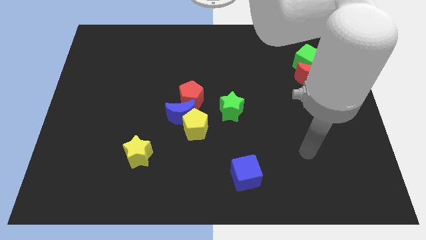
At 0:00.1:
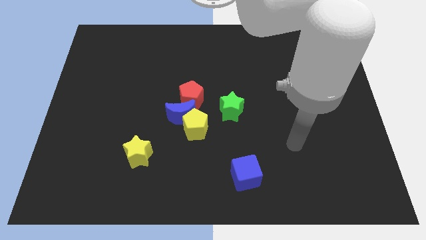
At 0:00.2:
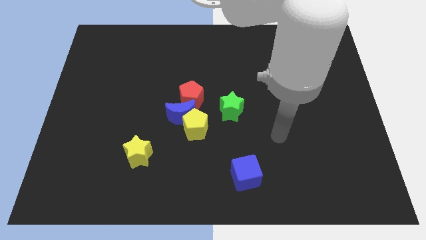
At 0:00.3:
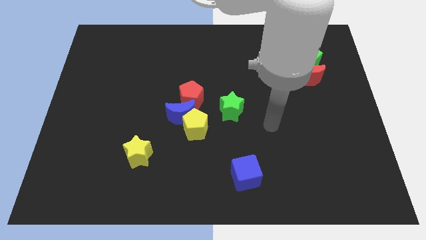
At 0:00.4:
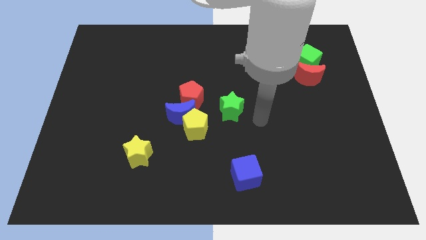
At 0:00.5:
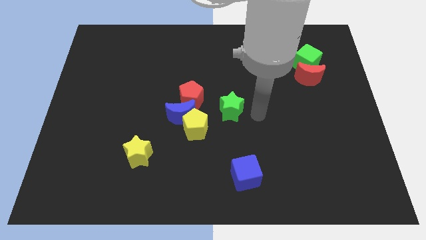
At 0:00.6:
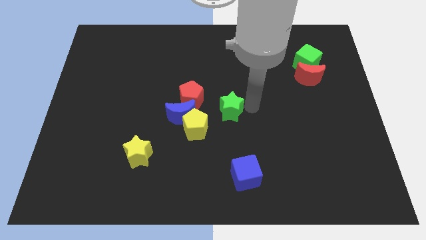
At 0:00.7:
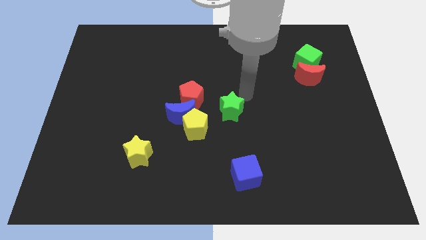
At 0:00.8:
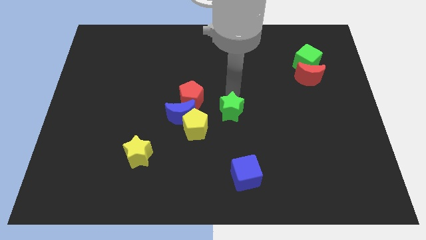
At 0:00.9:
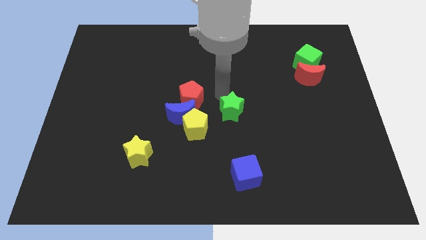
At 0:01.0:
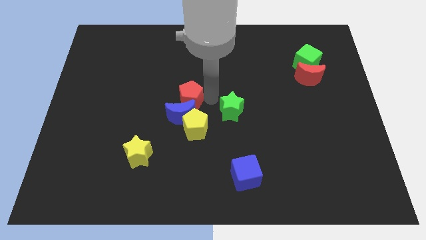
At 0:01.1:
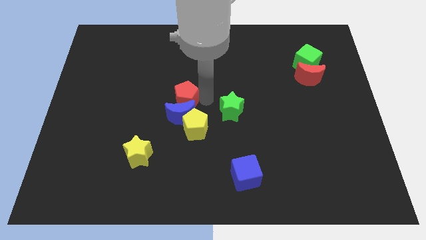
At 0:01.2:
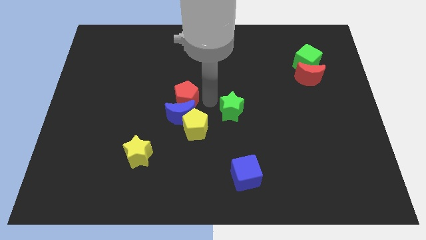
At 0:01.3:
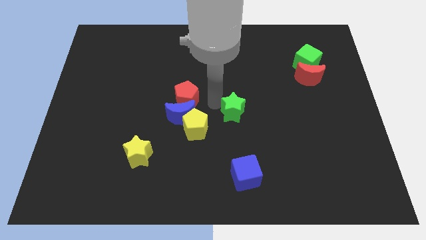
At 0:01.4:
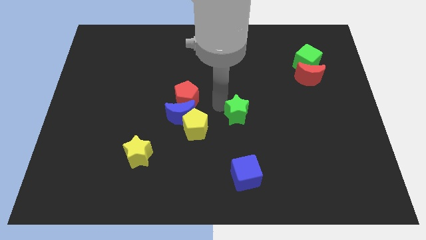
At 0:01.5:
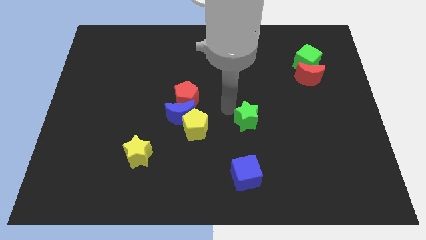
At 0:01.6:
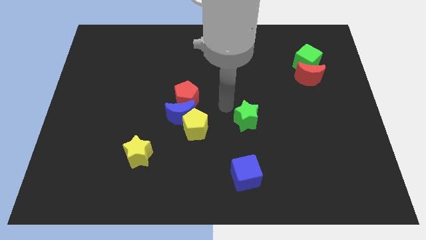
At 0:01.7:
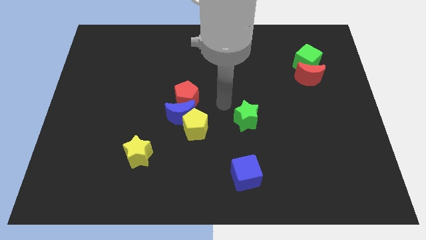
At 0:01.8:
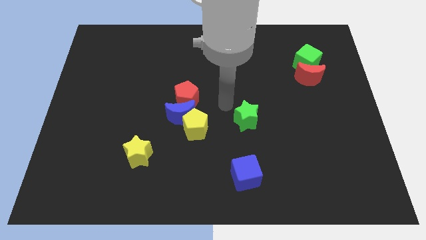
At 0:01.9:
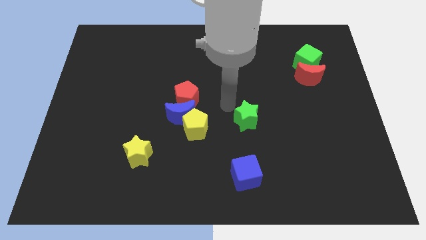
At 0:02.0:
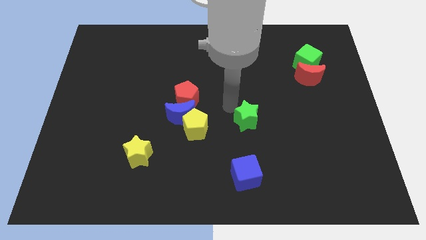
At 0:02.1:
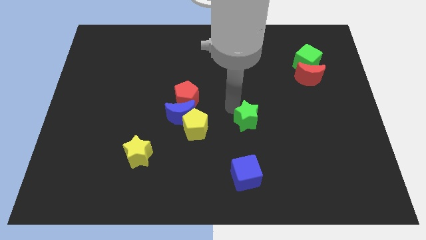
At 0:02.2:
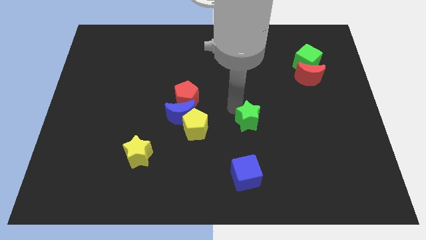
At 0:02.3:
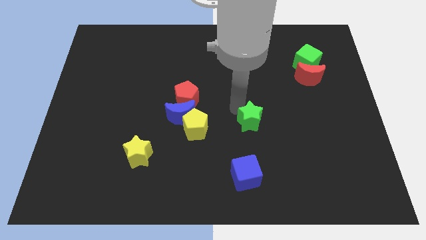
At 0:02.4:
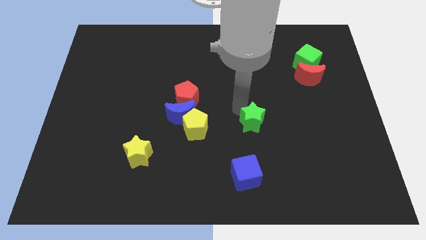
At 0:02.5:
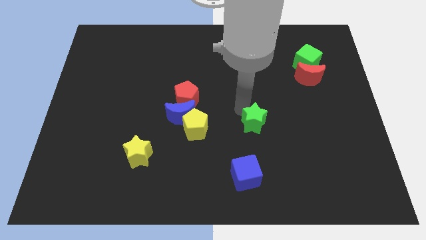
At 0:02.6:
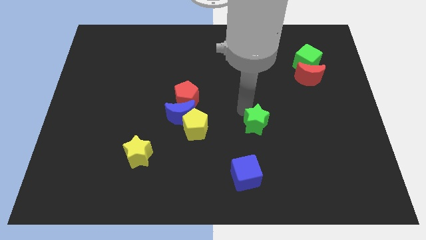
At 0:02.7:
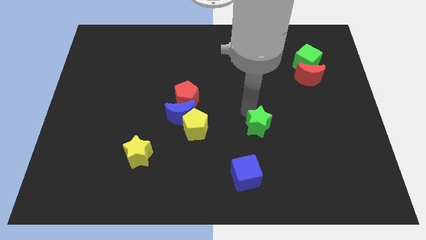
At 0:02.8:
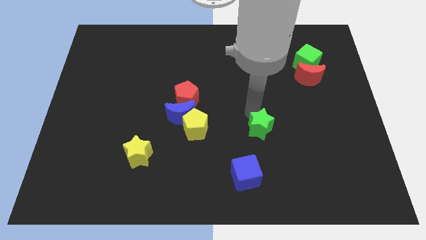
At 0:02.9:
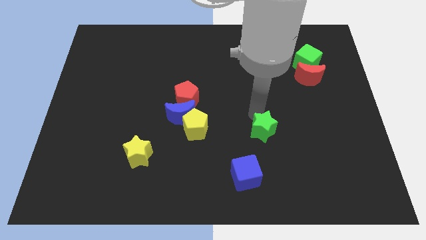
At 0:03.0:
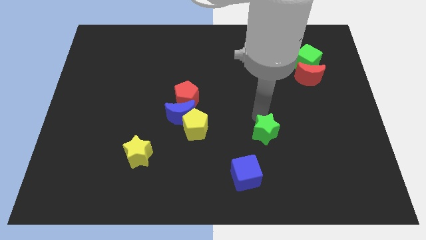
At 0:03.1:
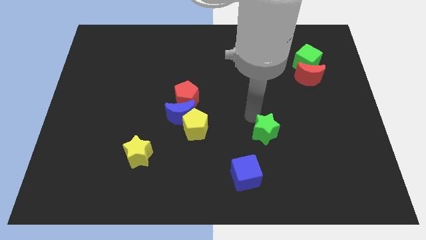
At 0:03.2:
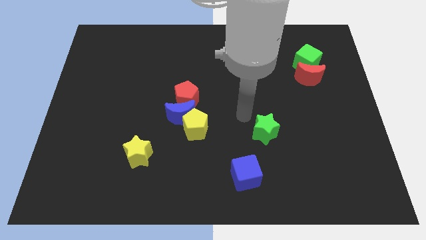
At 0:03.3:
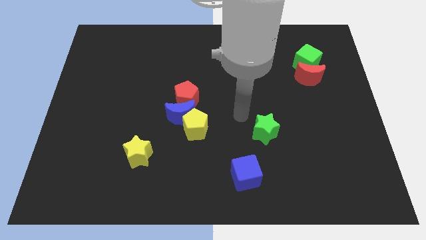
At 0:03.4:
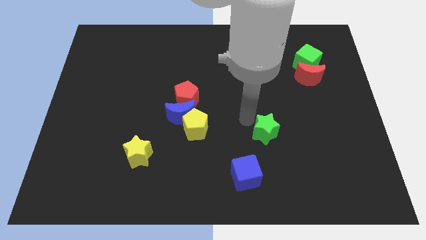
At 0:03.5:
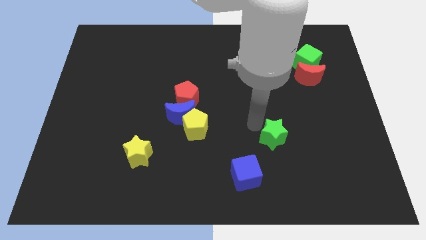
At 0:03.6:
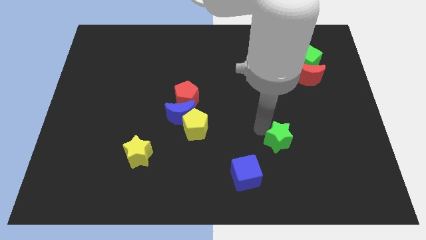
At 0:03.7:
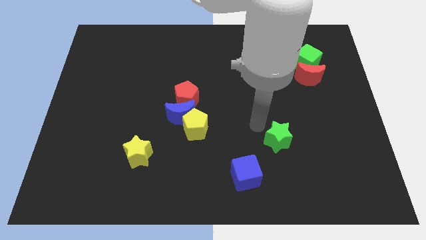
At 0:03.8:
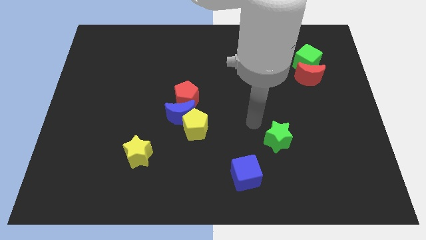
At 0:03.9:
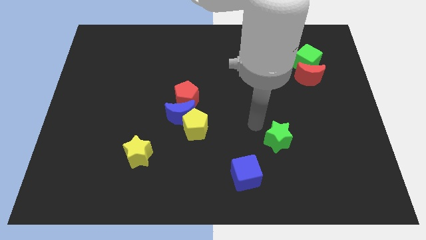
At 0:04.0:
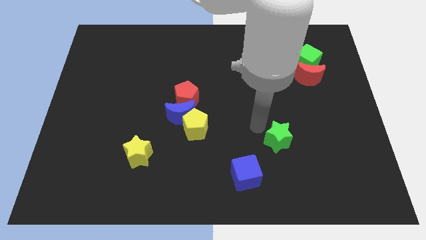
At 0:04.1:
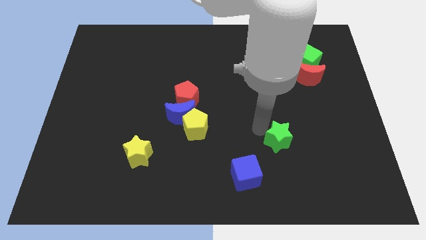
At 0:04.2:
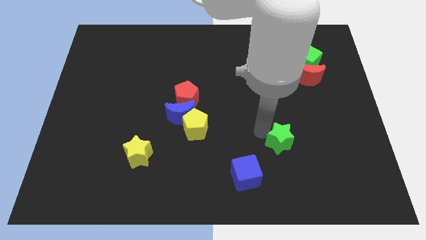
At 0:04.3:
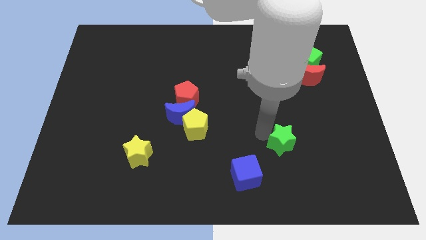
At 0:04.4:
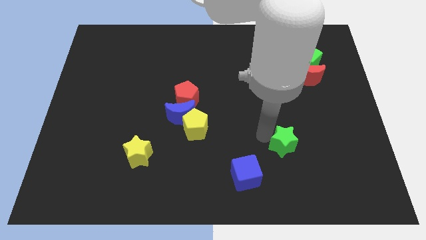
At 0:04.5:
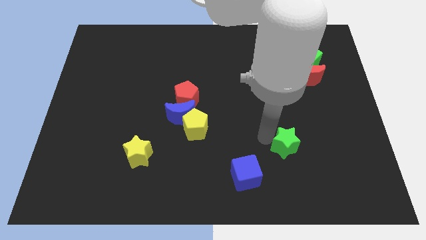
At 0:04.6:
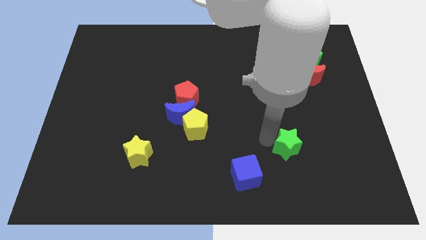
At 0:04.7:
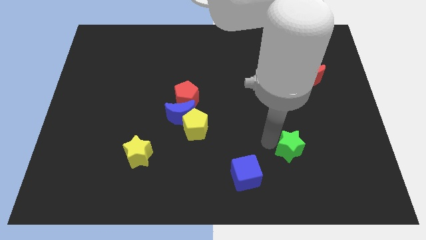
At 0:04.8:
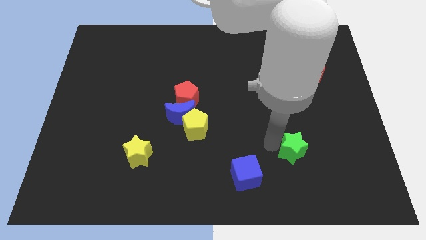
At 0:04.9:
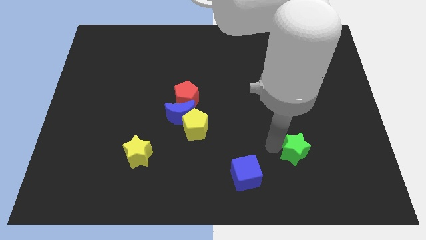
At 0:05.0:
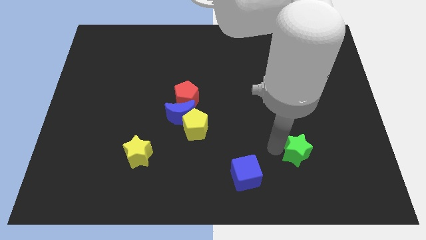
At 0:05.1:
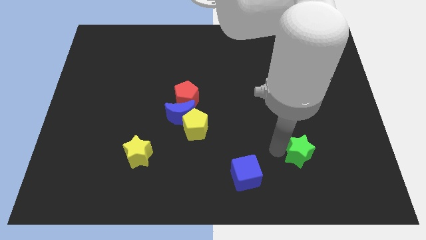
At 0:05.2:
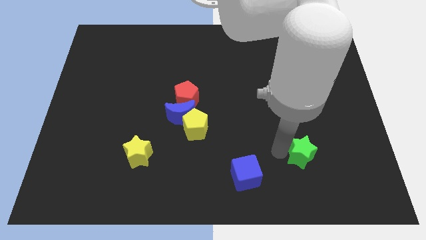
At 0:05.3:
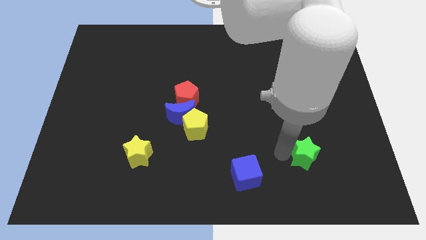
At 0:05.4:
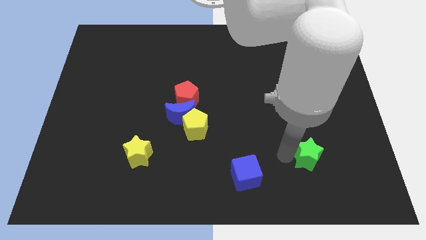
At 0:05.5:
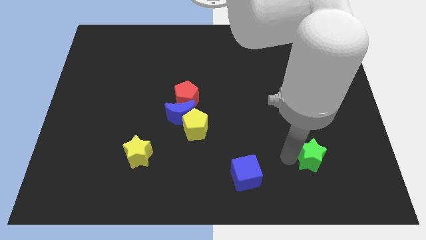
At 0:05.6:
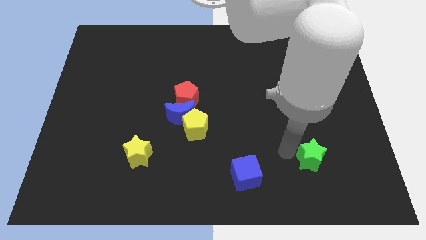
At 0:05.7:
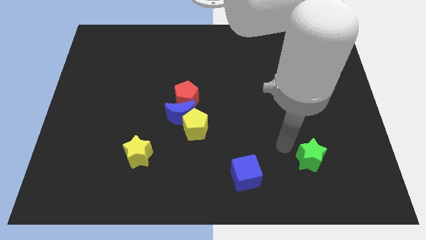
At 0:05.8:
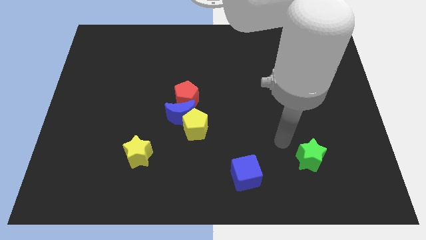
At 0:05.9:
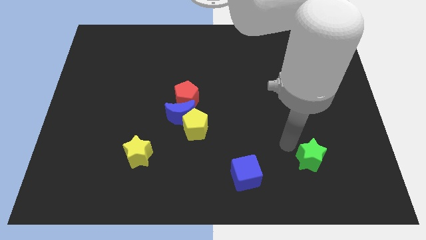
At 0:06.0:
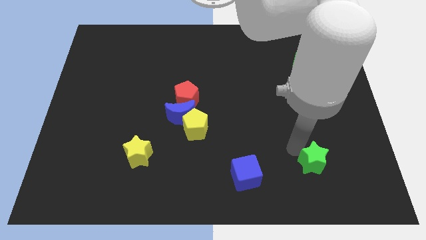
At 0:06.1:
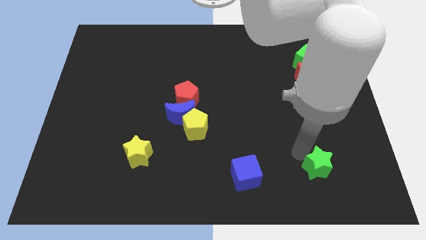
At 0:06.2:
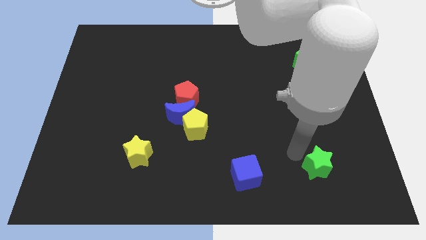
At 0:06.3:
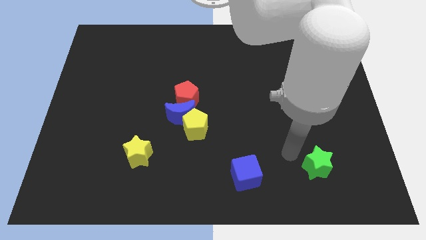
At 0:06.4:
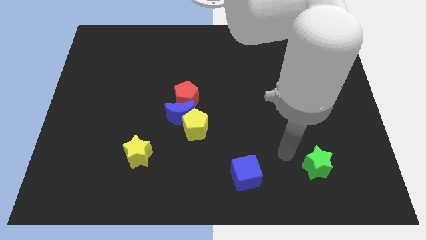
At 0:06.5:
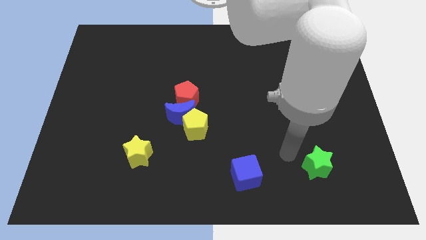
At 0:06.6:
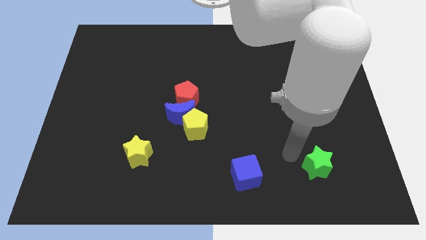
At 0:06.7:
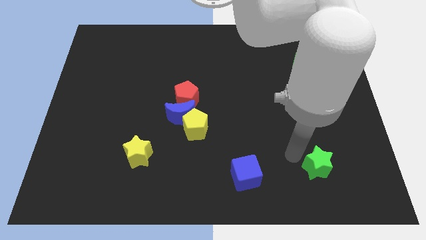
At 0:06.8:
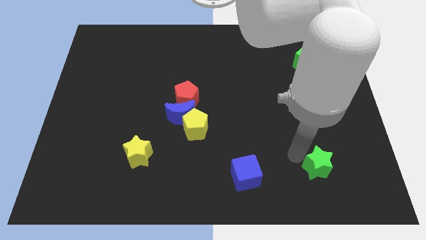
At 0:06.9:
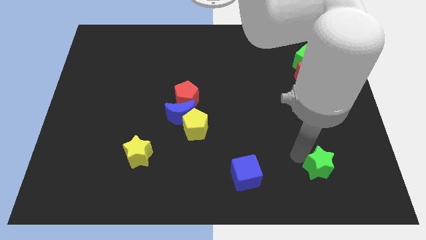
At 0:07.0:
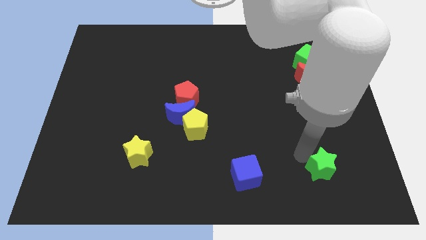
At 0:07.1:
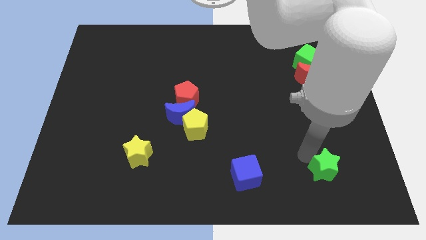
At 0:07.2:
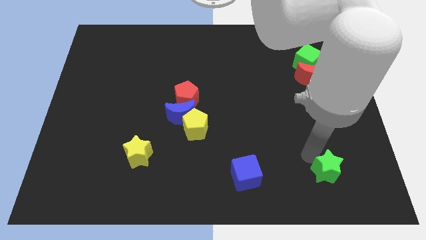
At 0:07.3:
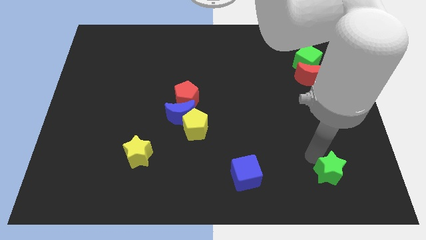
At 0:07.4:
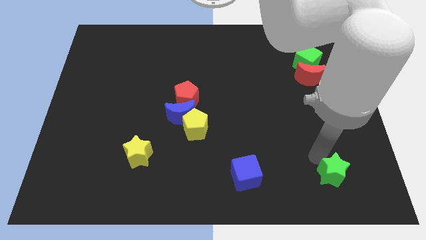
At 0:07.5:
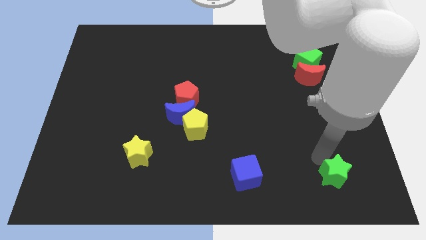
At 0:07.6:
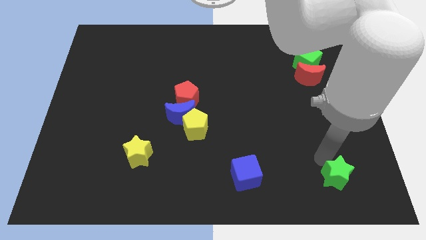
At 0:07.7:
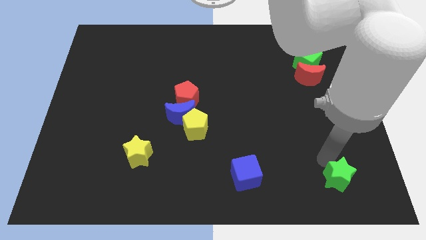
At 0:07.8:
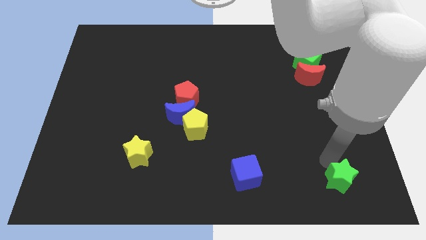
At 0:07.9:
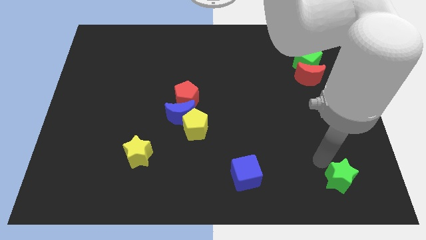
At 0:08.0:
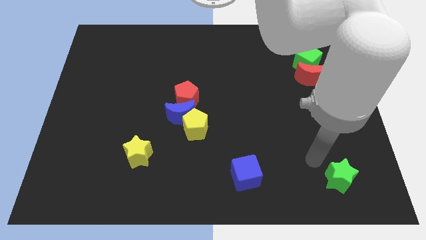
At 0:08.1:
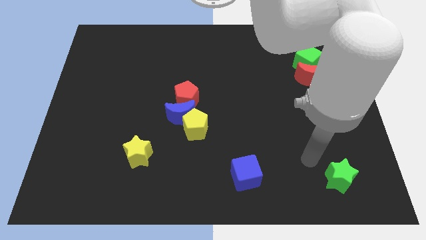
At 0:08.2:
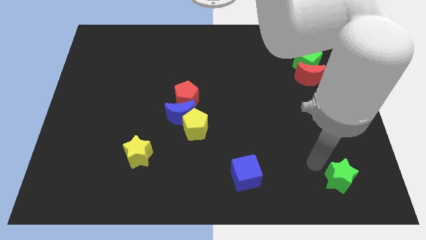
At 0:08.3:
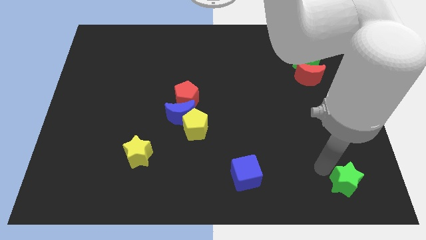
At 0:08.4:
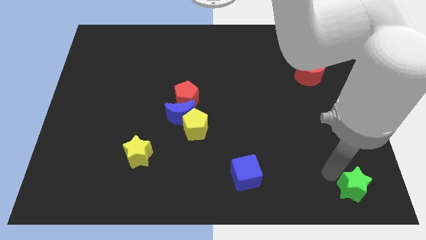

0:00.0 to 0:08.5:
slide the green star to the bottom right corner
